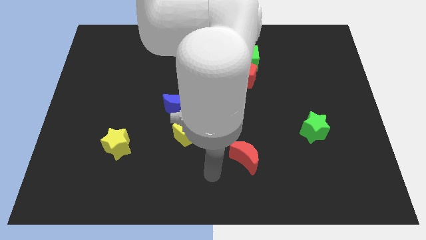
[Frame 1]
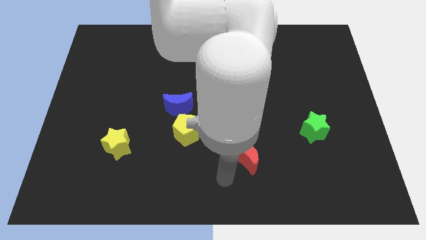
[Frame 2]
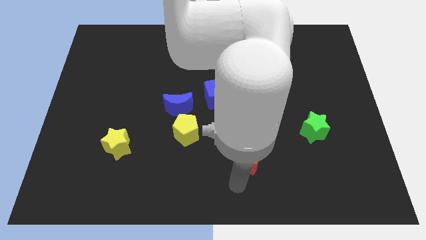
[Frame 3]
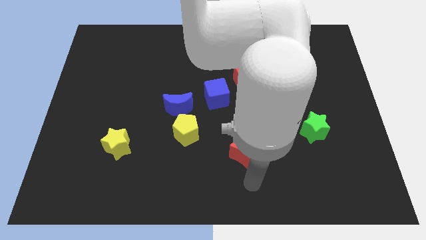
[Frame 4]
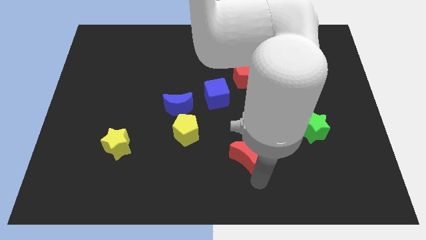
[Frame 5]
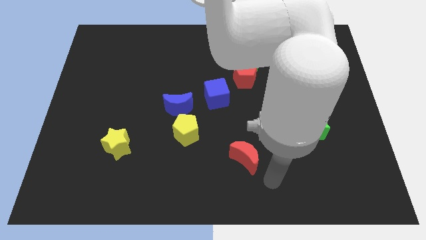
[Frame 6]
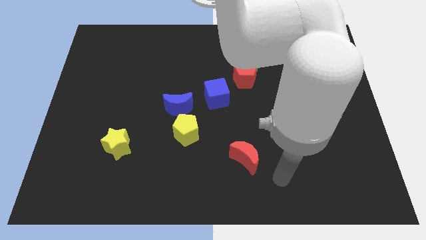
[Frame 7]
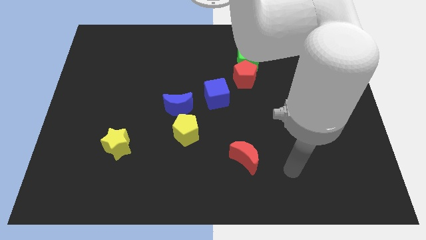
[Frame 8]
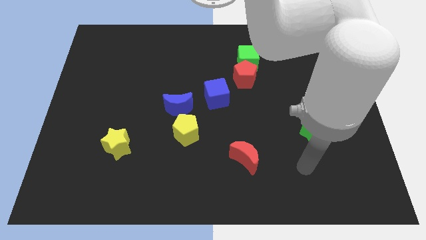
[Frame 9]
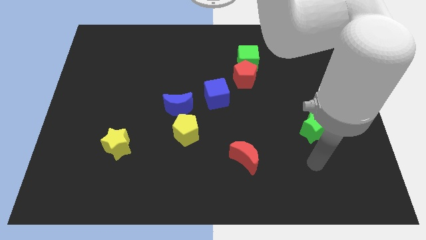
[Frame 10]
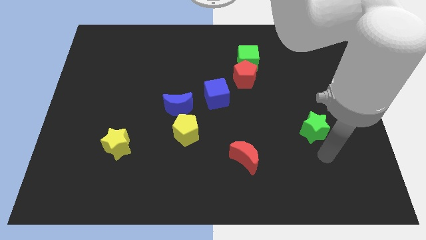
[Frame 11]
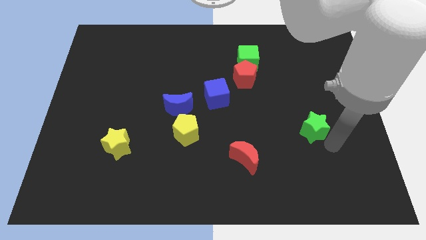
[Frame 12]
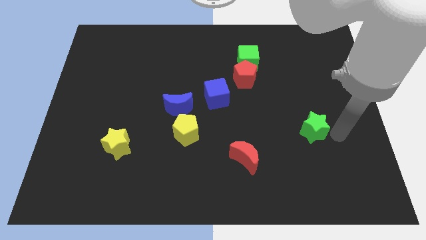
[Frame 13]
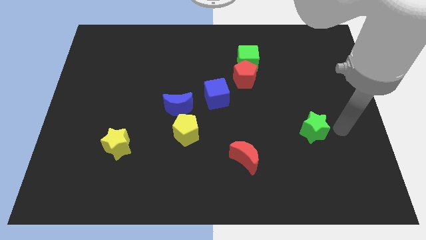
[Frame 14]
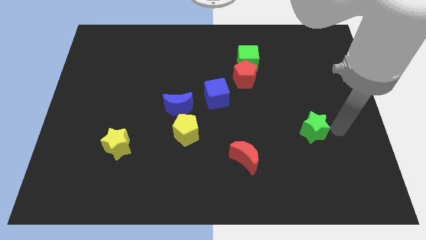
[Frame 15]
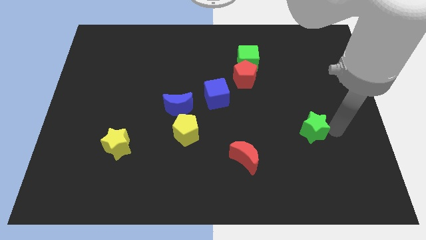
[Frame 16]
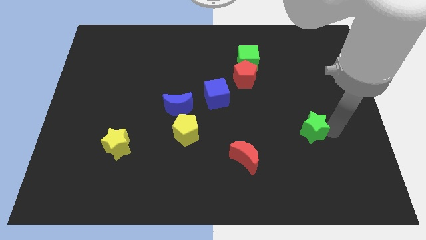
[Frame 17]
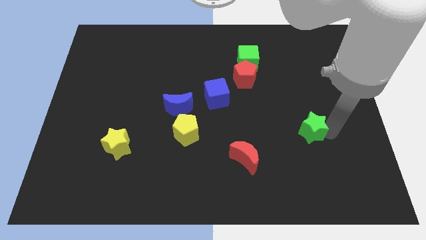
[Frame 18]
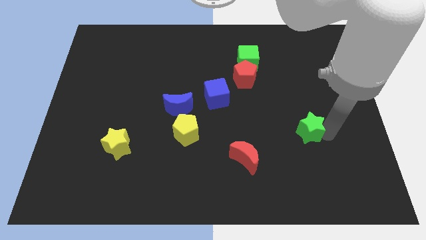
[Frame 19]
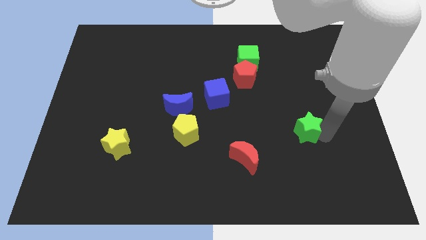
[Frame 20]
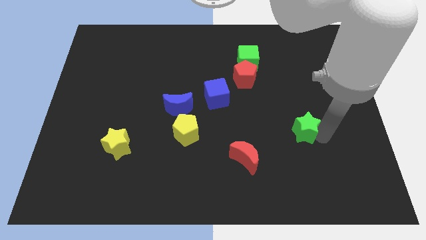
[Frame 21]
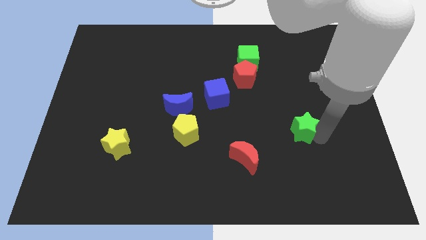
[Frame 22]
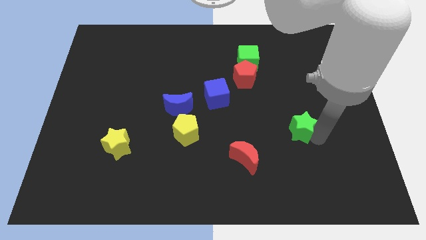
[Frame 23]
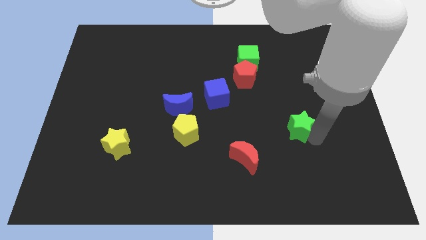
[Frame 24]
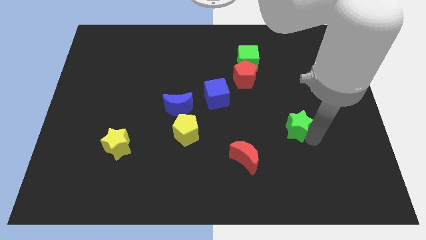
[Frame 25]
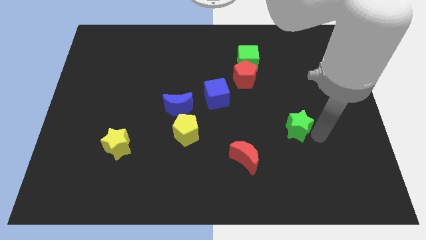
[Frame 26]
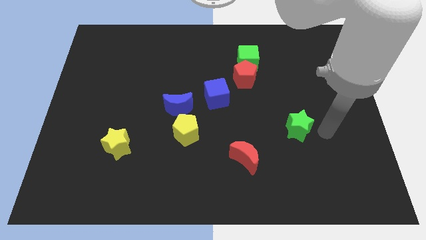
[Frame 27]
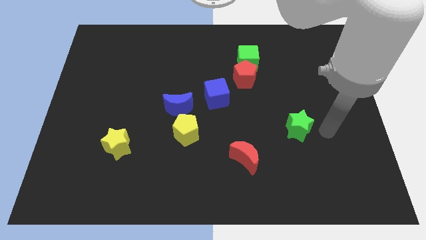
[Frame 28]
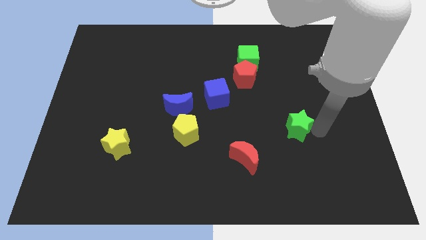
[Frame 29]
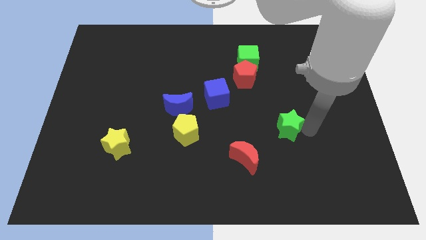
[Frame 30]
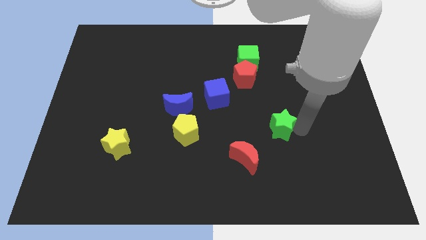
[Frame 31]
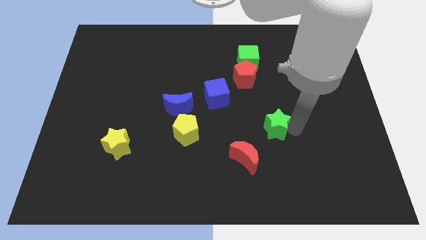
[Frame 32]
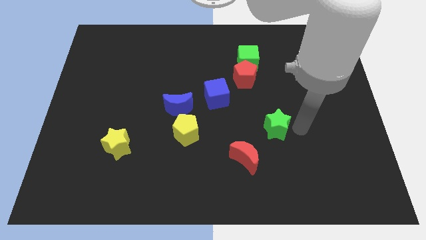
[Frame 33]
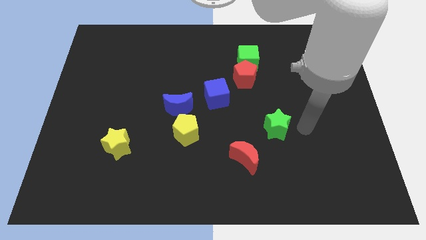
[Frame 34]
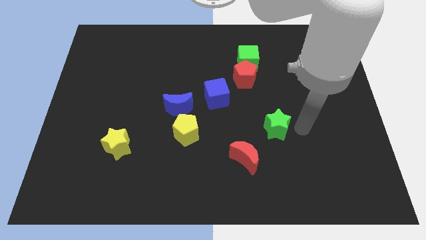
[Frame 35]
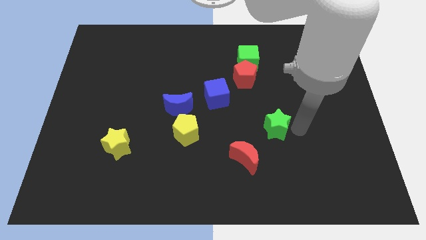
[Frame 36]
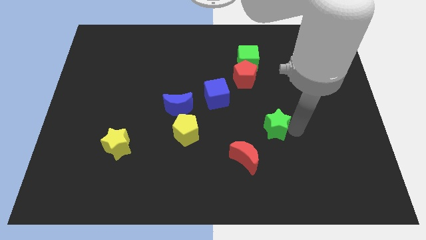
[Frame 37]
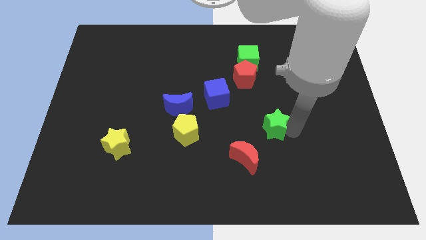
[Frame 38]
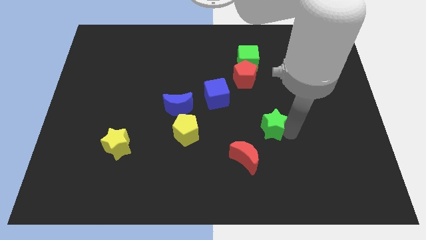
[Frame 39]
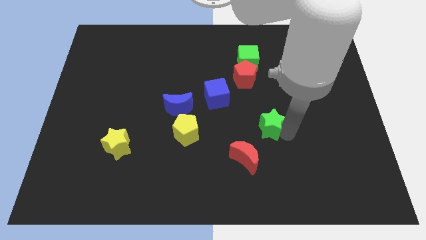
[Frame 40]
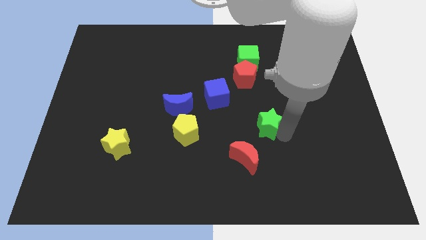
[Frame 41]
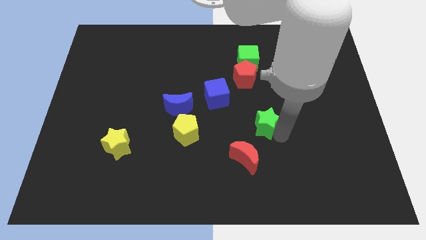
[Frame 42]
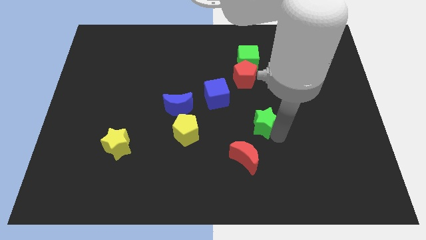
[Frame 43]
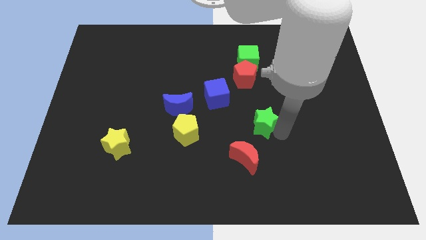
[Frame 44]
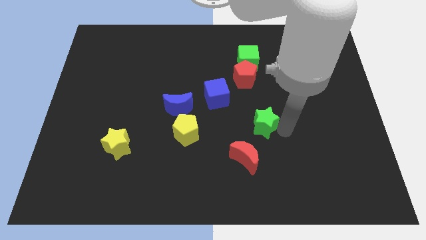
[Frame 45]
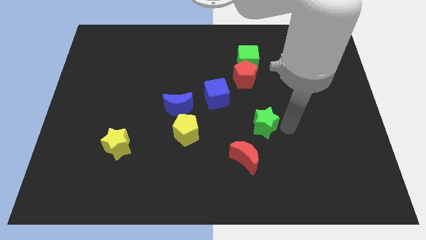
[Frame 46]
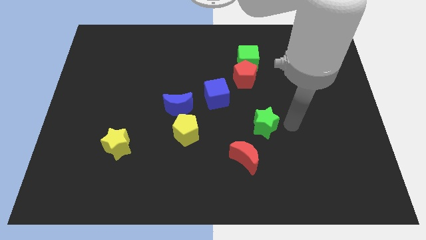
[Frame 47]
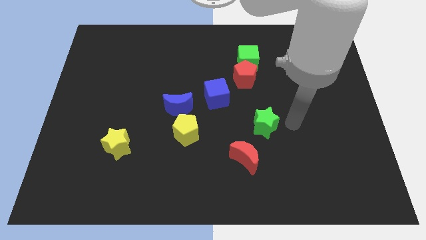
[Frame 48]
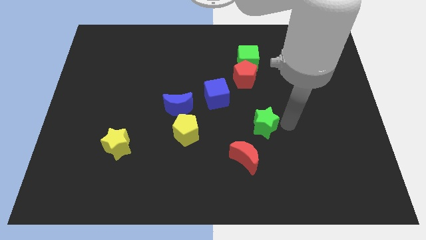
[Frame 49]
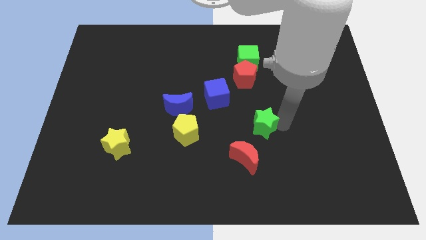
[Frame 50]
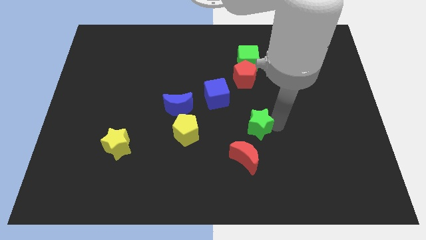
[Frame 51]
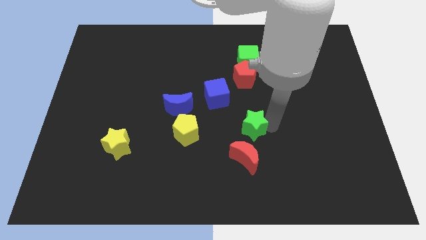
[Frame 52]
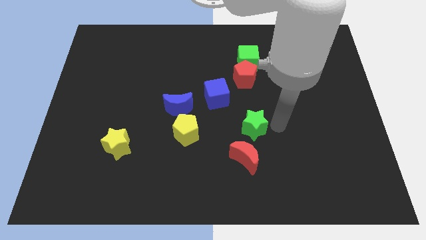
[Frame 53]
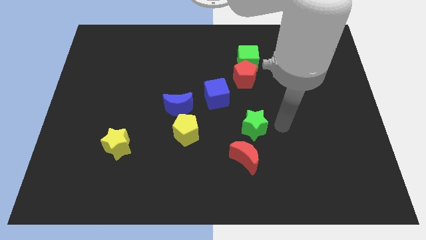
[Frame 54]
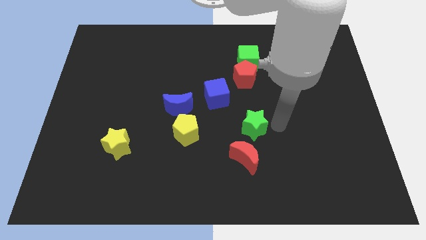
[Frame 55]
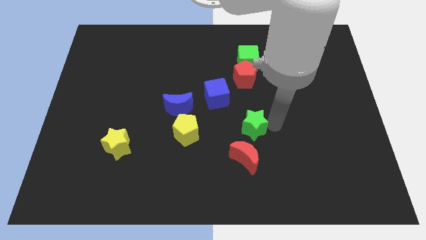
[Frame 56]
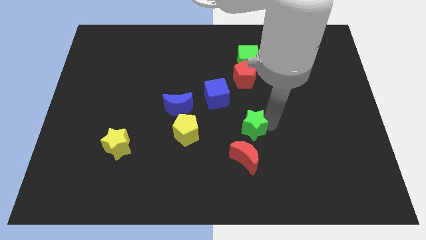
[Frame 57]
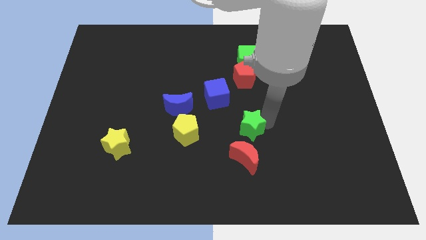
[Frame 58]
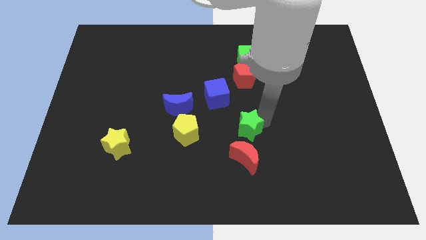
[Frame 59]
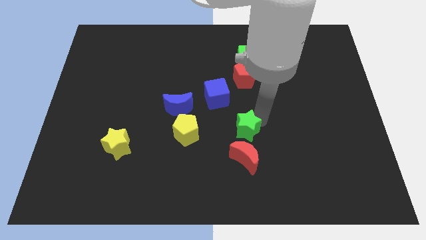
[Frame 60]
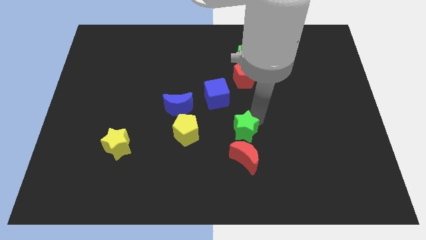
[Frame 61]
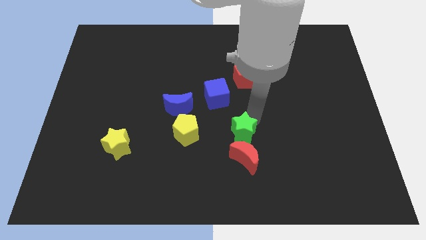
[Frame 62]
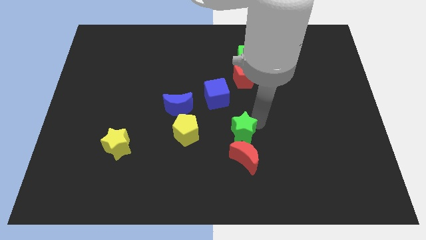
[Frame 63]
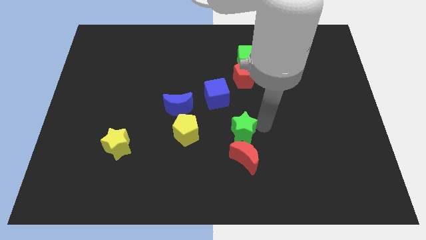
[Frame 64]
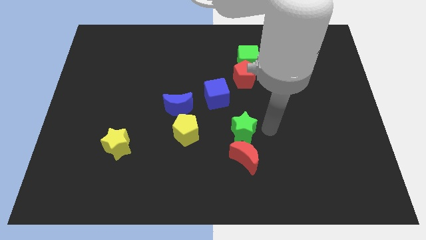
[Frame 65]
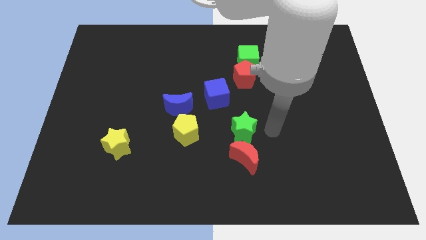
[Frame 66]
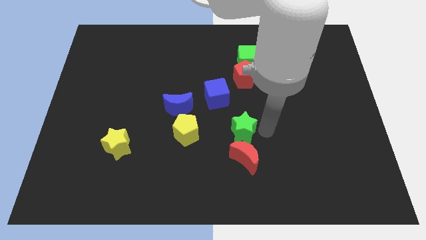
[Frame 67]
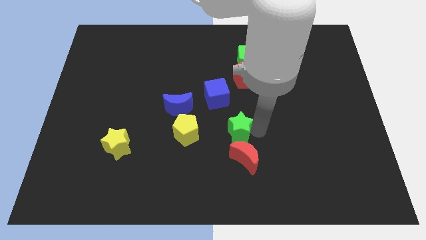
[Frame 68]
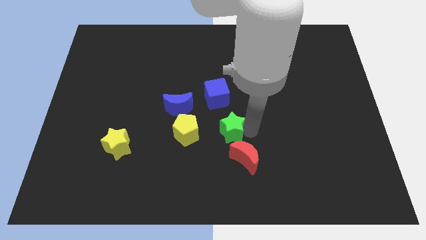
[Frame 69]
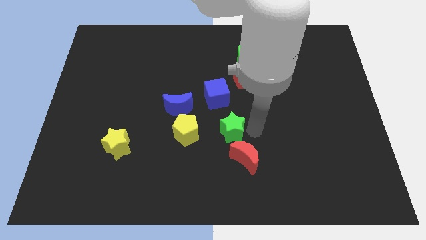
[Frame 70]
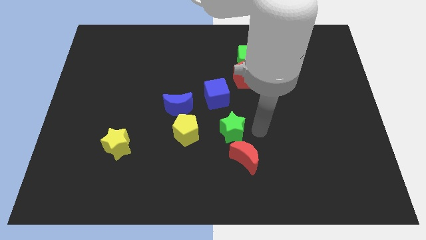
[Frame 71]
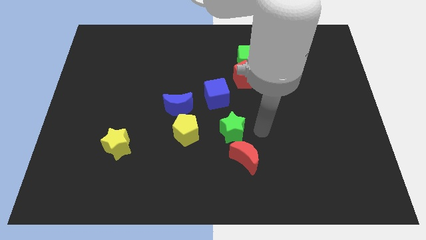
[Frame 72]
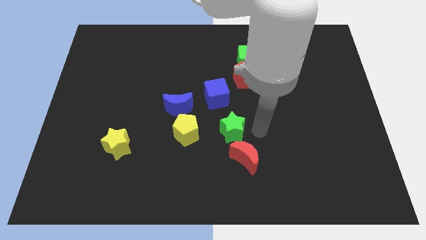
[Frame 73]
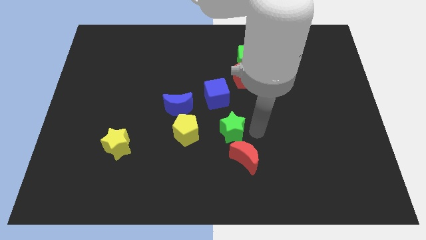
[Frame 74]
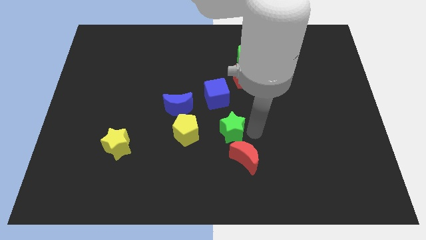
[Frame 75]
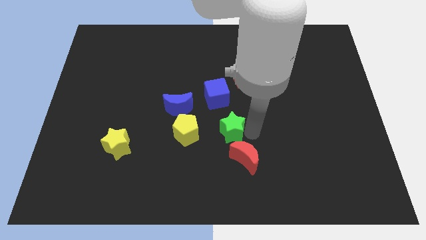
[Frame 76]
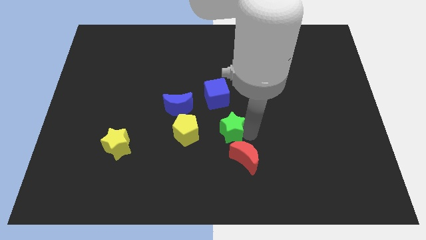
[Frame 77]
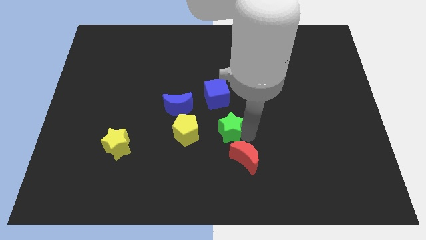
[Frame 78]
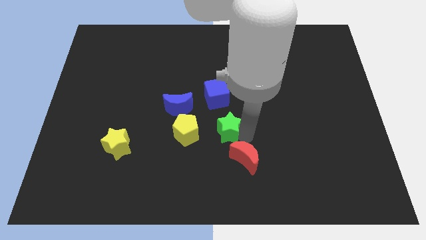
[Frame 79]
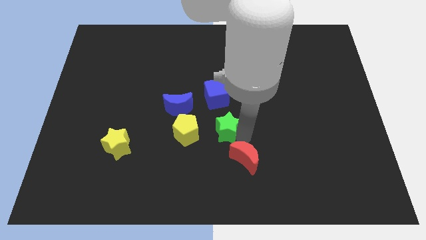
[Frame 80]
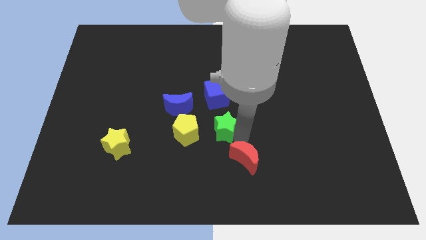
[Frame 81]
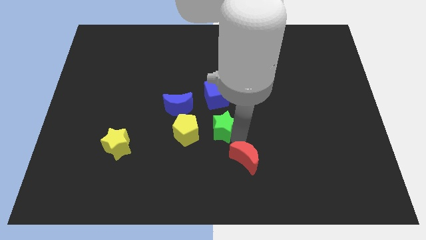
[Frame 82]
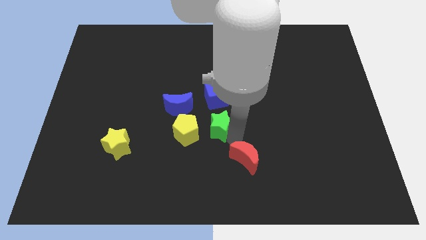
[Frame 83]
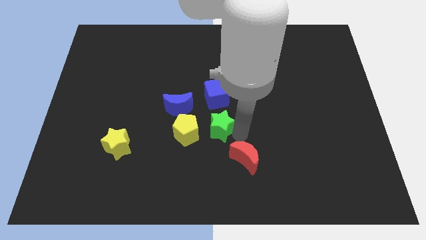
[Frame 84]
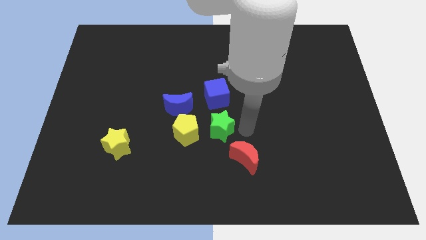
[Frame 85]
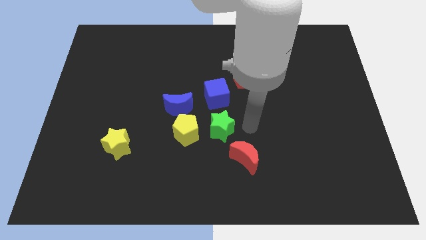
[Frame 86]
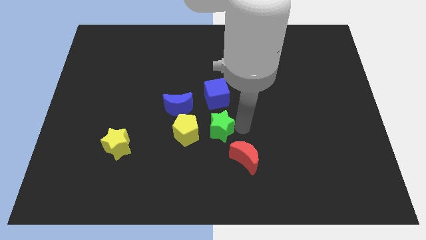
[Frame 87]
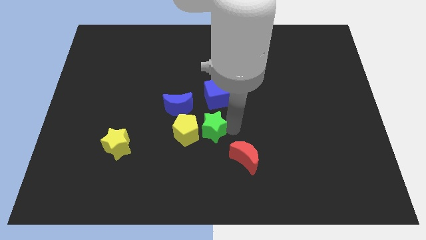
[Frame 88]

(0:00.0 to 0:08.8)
slide the green star next to the yellow pentagon
